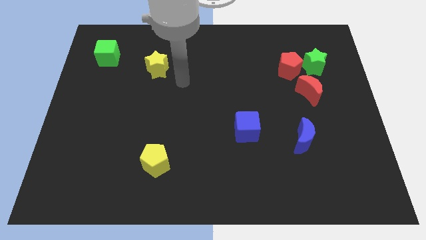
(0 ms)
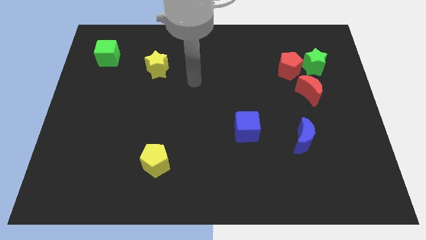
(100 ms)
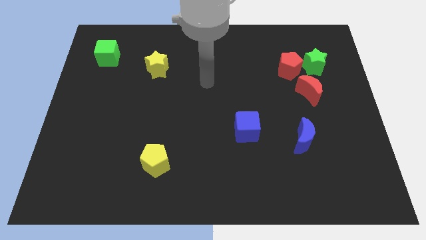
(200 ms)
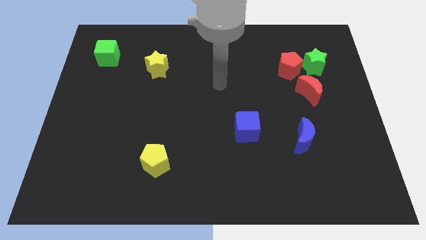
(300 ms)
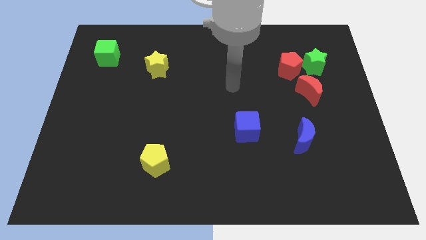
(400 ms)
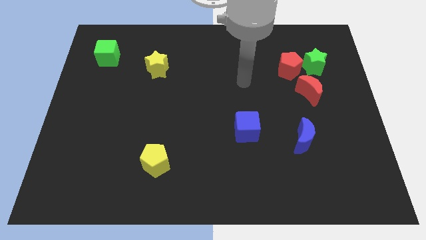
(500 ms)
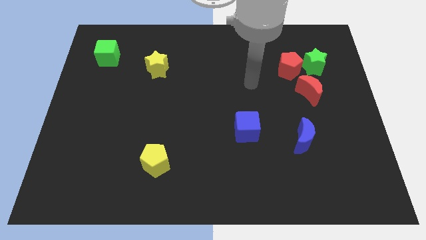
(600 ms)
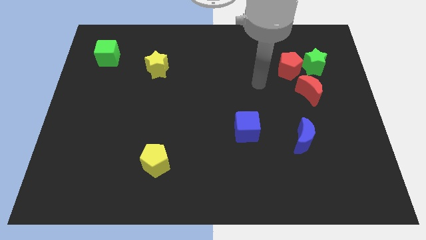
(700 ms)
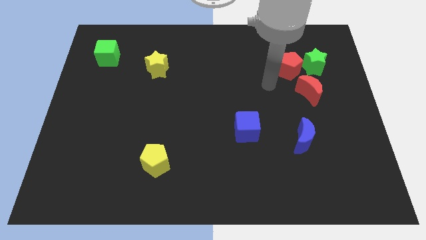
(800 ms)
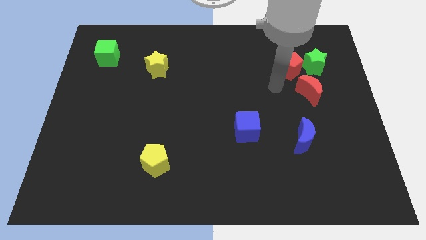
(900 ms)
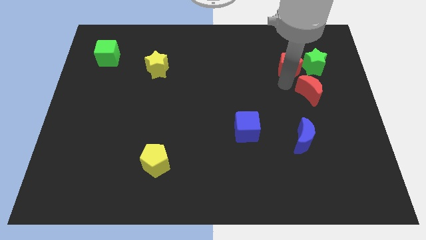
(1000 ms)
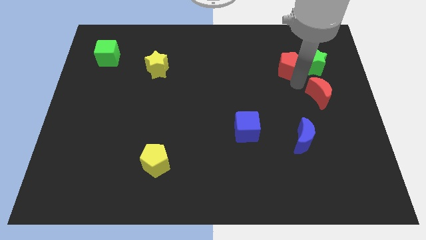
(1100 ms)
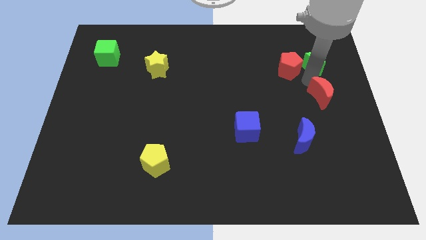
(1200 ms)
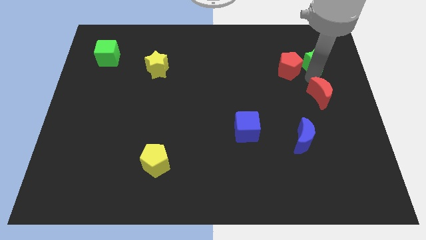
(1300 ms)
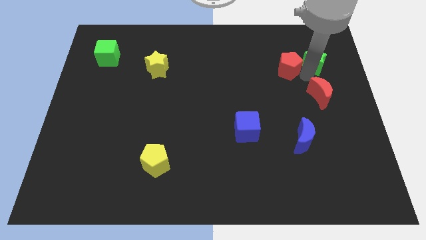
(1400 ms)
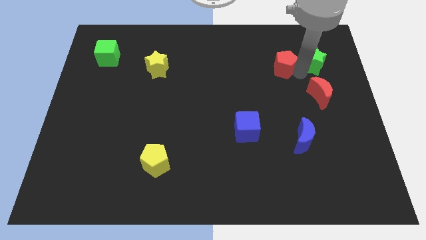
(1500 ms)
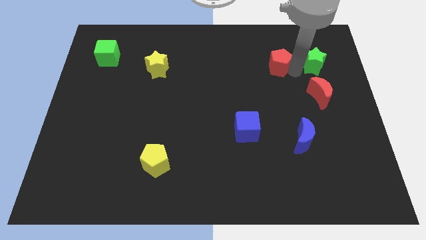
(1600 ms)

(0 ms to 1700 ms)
move the red pentagon away from the green star and red moon

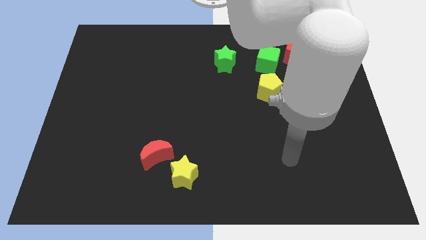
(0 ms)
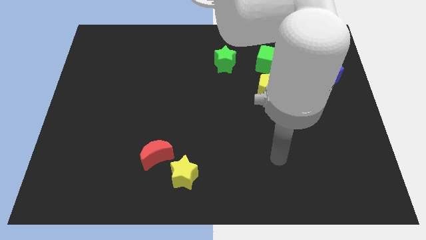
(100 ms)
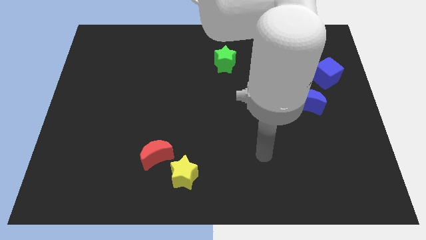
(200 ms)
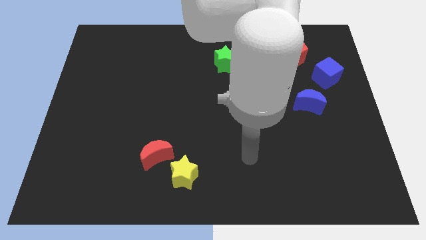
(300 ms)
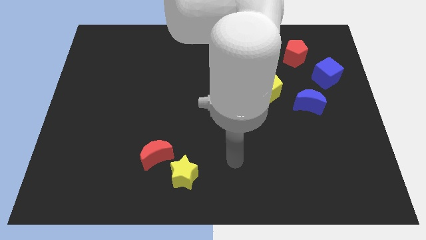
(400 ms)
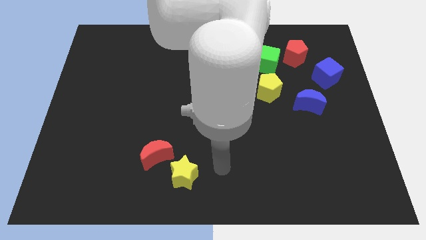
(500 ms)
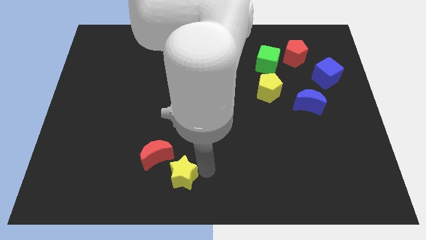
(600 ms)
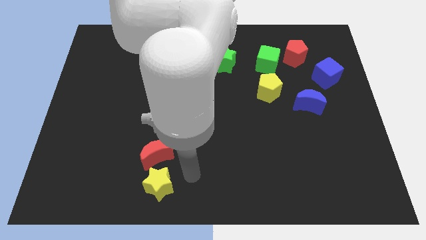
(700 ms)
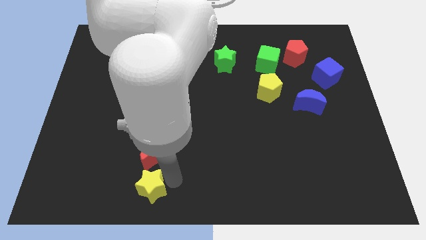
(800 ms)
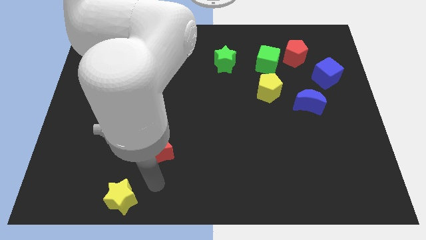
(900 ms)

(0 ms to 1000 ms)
pull the red moon apart from the yellow star

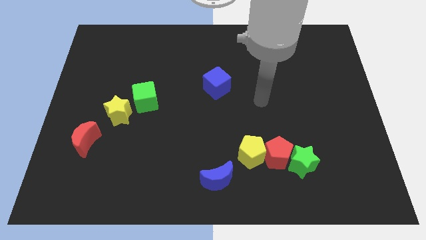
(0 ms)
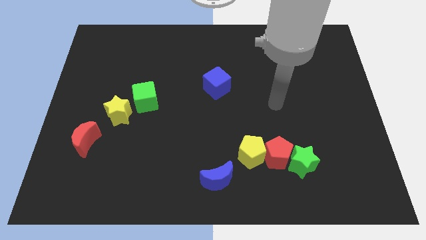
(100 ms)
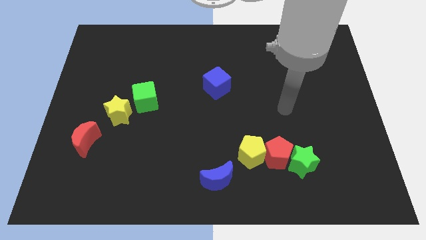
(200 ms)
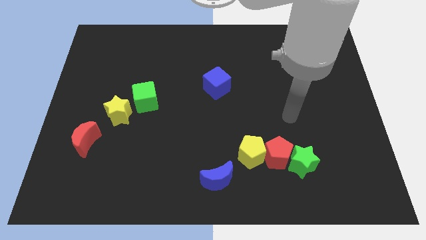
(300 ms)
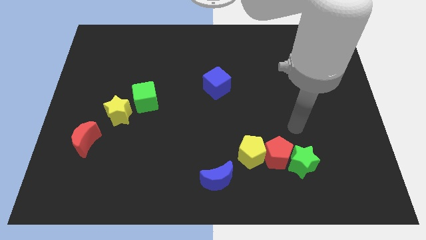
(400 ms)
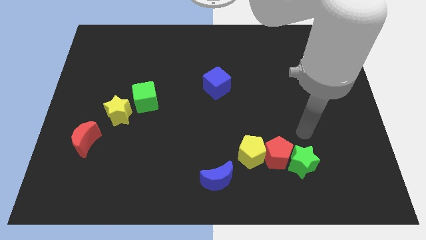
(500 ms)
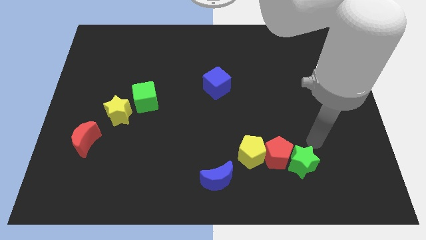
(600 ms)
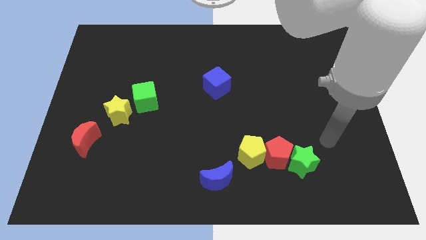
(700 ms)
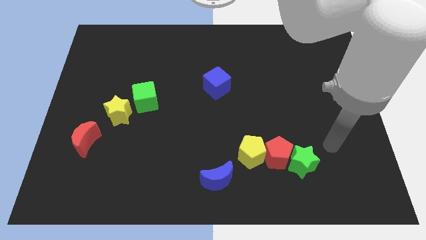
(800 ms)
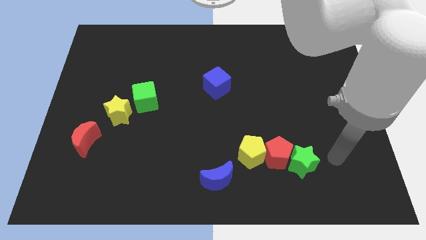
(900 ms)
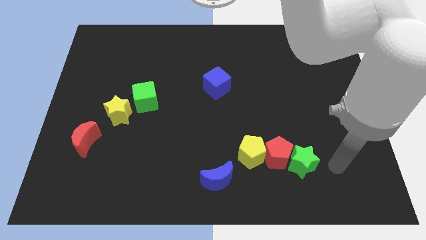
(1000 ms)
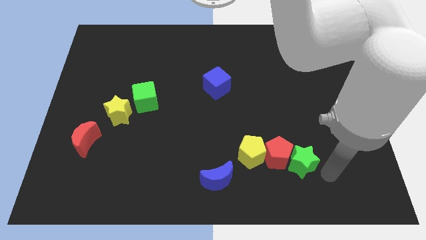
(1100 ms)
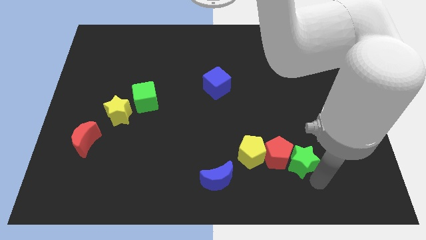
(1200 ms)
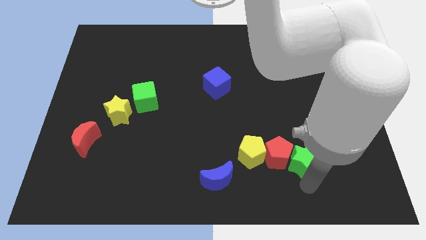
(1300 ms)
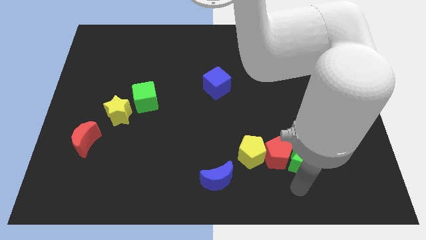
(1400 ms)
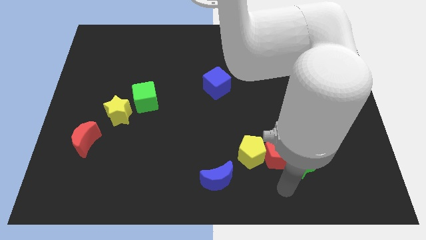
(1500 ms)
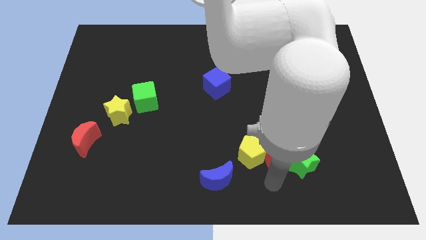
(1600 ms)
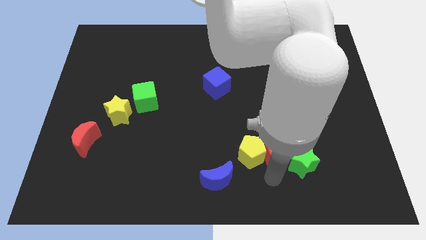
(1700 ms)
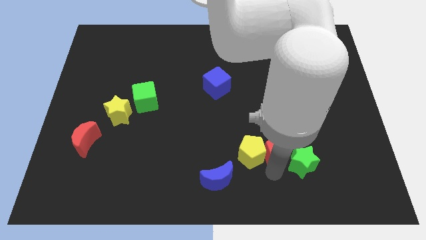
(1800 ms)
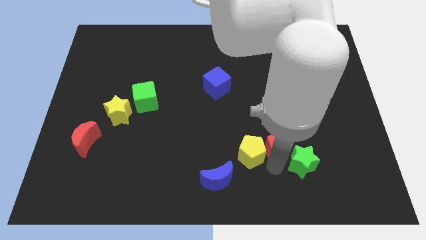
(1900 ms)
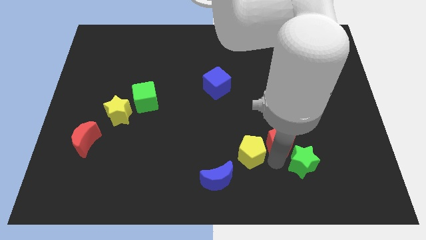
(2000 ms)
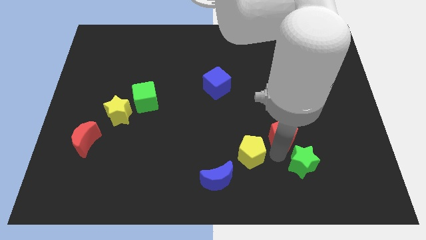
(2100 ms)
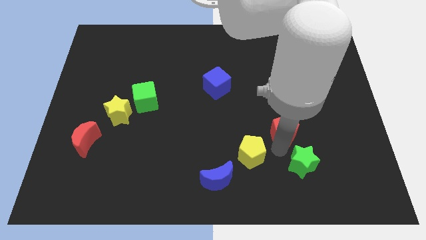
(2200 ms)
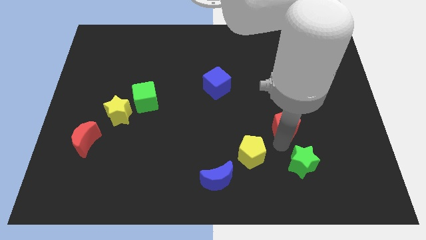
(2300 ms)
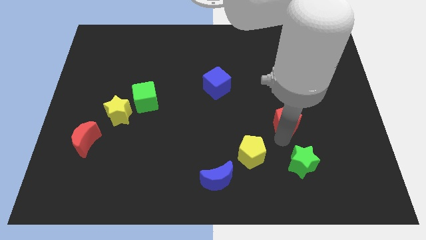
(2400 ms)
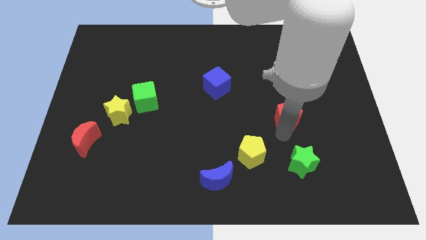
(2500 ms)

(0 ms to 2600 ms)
move the red pentagon away from the yellow pentagon and green star

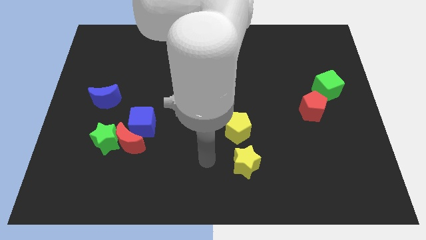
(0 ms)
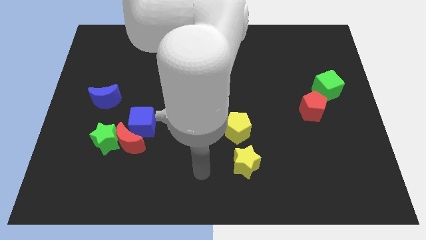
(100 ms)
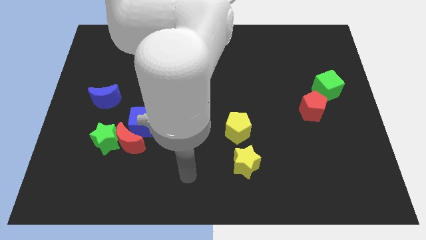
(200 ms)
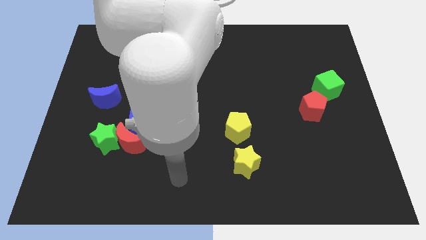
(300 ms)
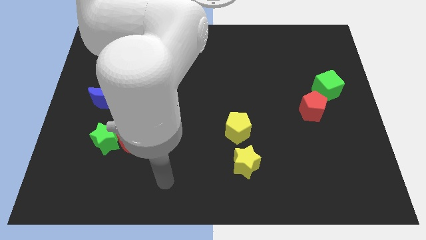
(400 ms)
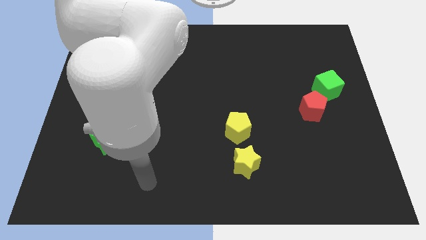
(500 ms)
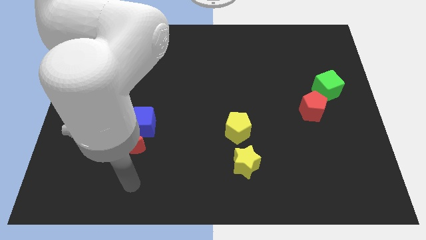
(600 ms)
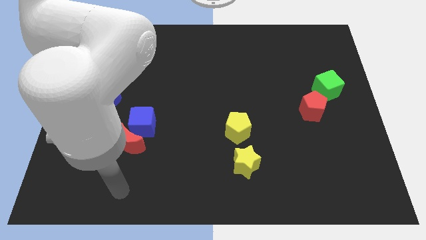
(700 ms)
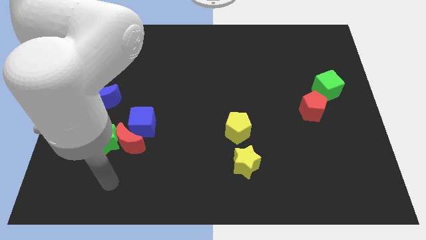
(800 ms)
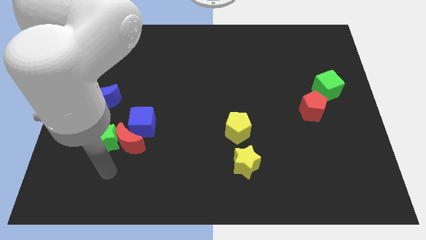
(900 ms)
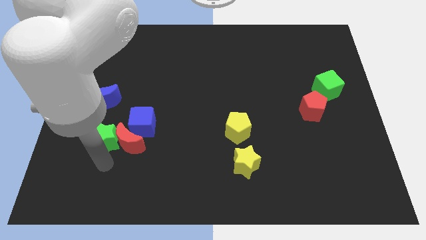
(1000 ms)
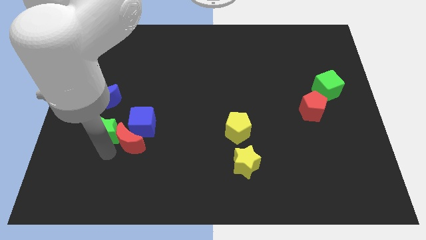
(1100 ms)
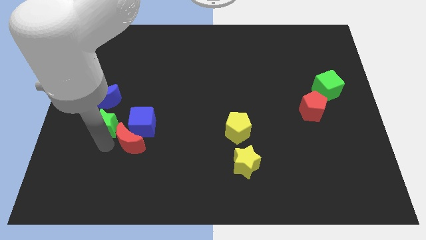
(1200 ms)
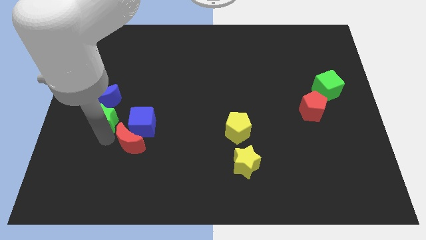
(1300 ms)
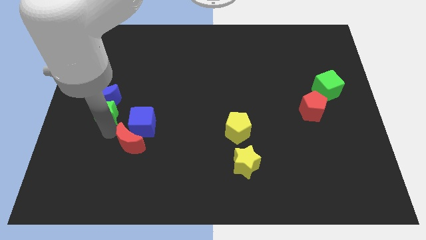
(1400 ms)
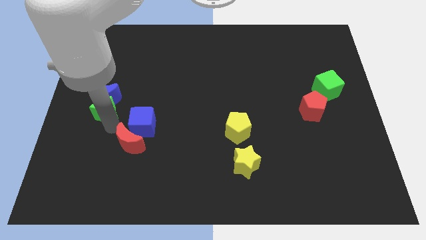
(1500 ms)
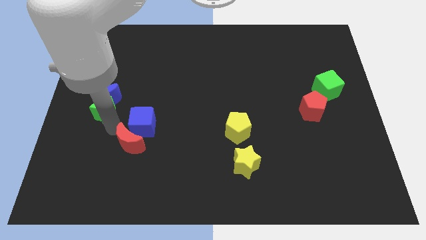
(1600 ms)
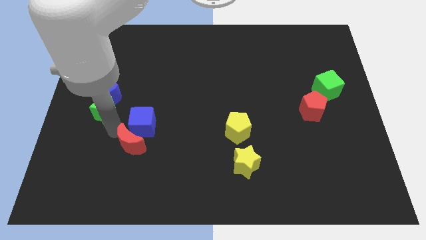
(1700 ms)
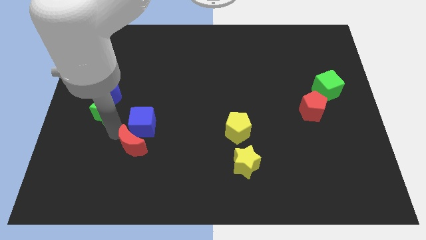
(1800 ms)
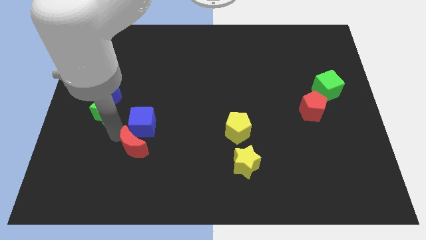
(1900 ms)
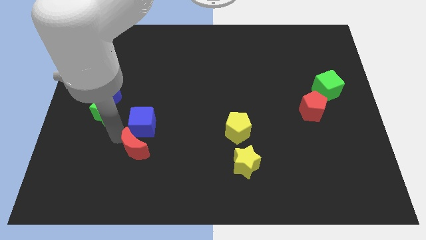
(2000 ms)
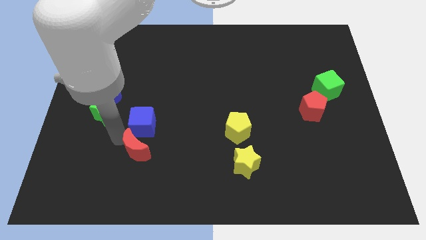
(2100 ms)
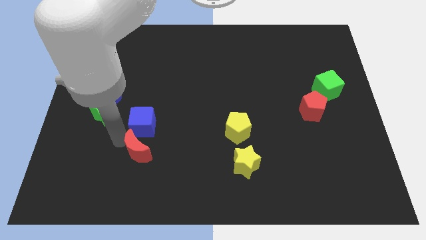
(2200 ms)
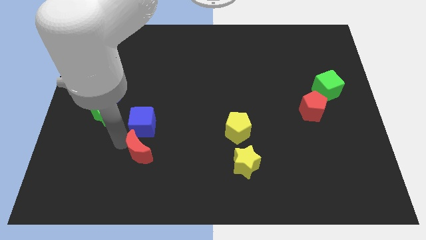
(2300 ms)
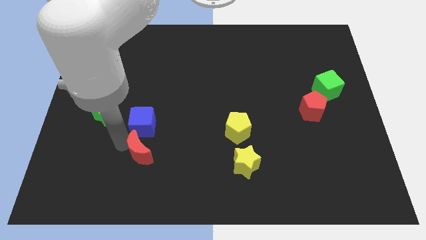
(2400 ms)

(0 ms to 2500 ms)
move the red moon away from the green star and blue cube

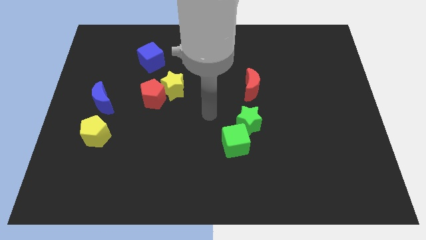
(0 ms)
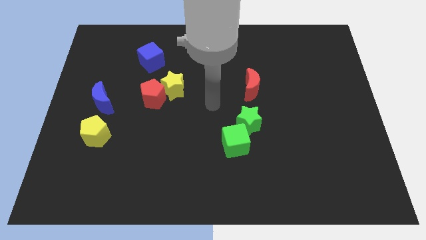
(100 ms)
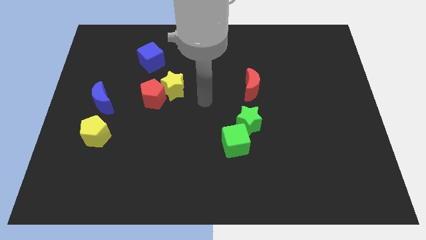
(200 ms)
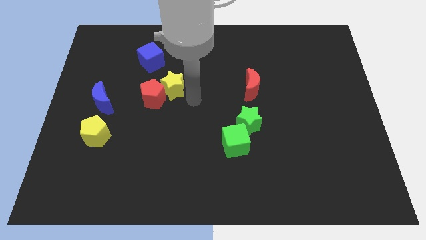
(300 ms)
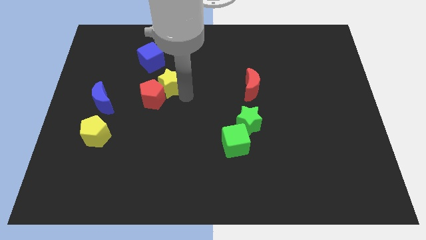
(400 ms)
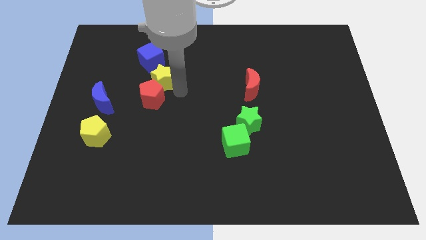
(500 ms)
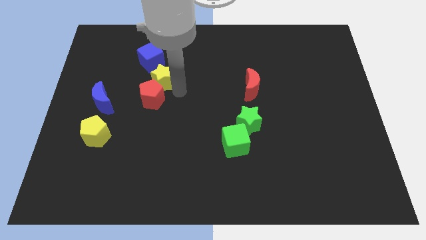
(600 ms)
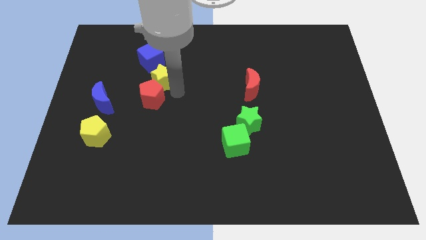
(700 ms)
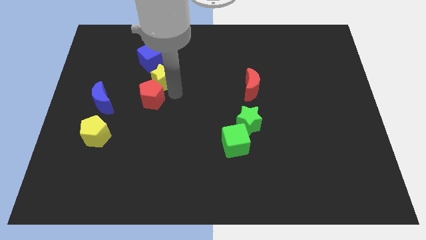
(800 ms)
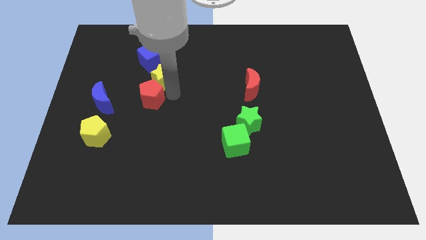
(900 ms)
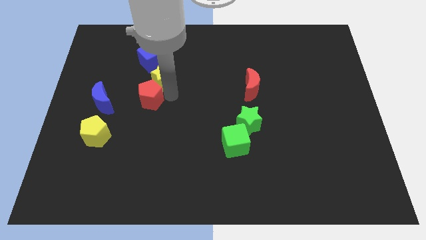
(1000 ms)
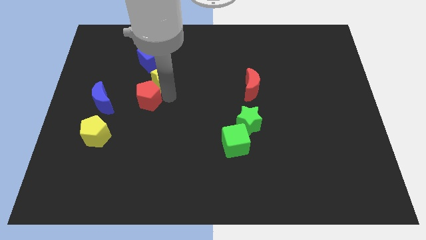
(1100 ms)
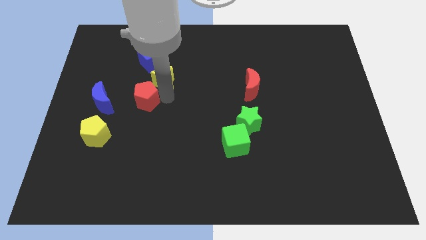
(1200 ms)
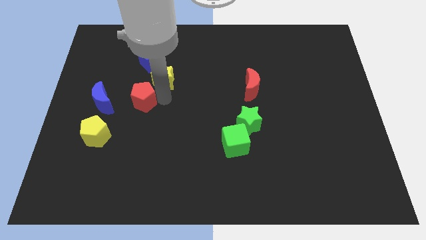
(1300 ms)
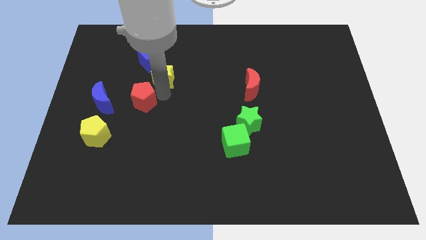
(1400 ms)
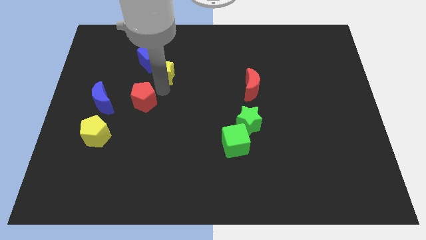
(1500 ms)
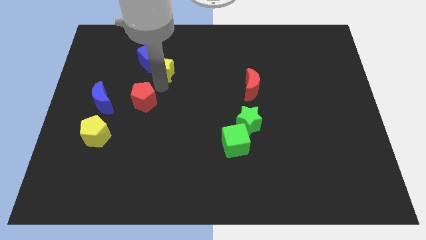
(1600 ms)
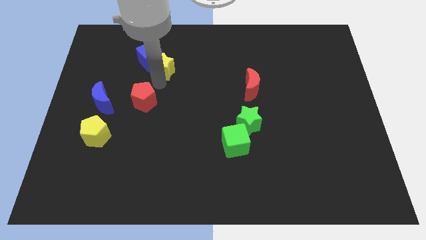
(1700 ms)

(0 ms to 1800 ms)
pull the red pentagon apart from the yellow star
